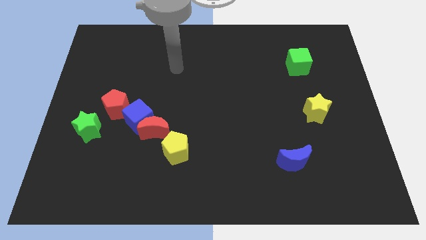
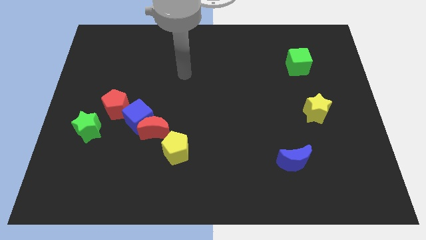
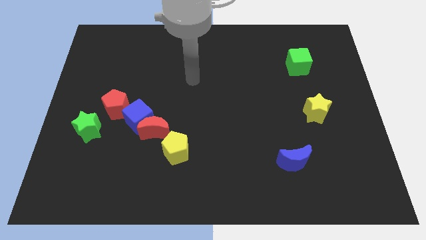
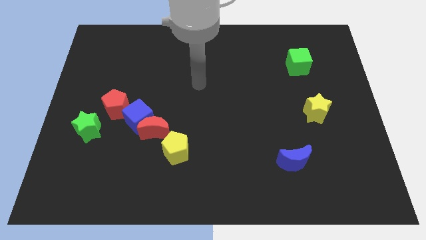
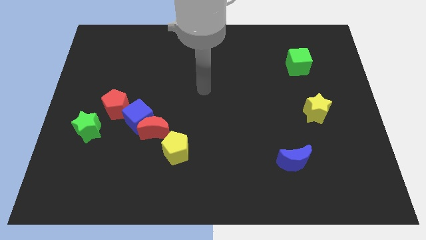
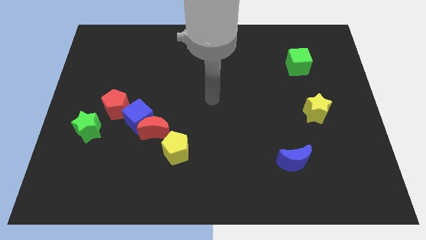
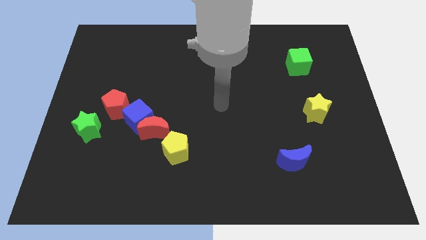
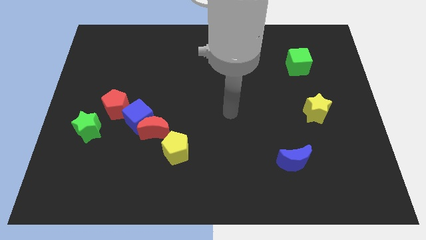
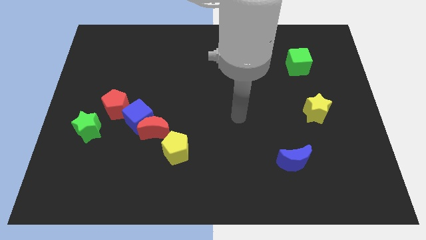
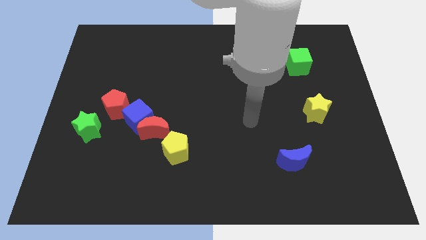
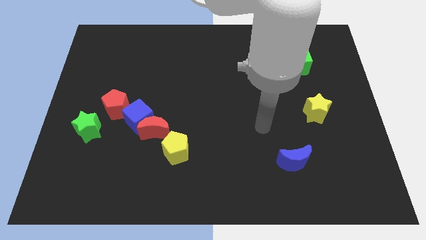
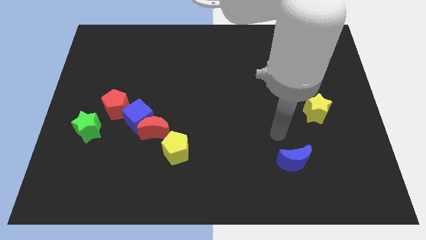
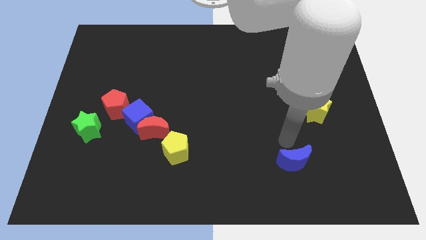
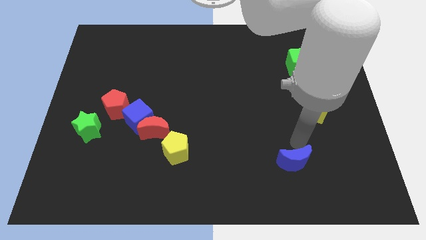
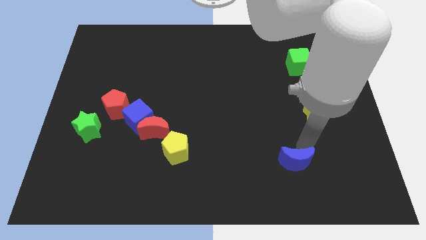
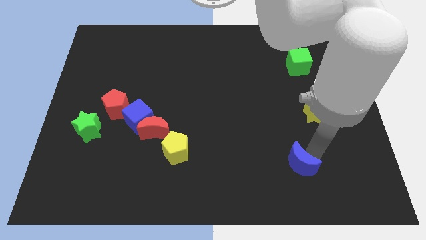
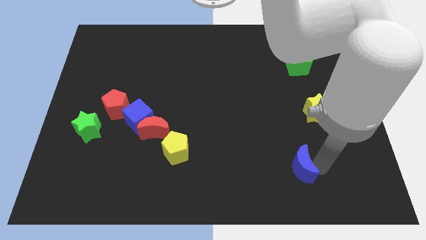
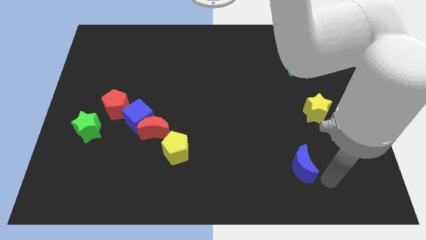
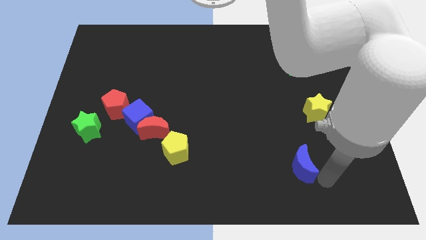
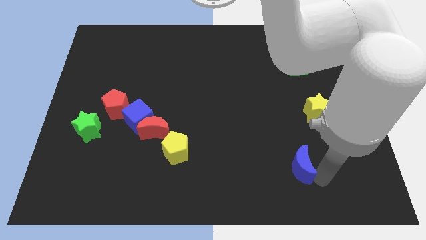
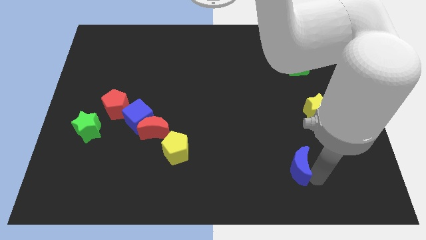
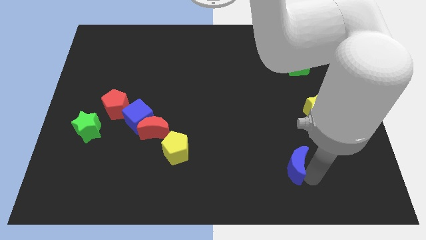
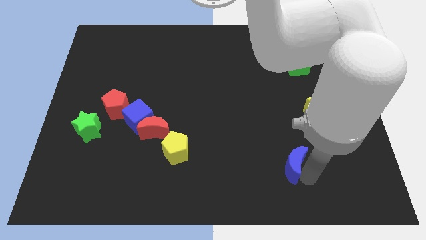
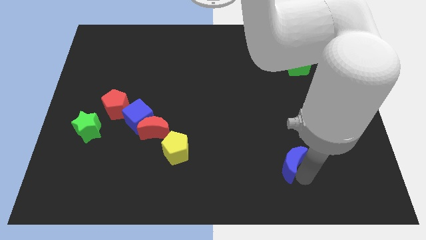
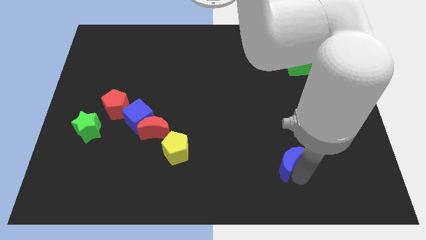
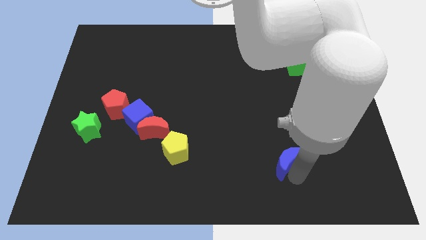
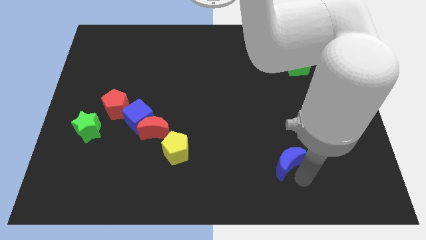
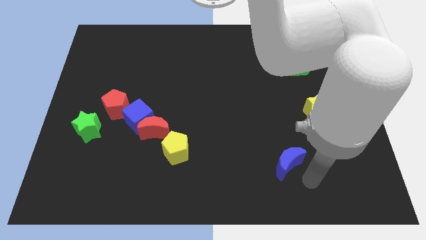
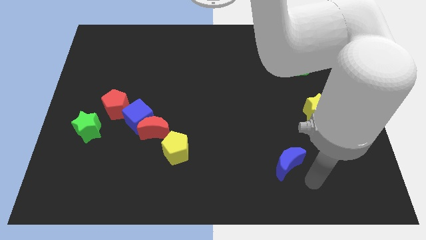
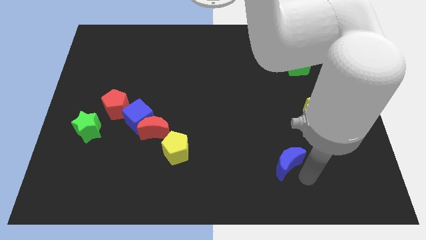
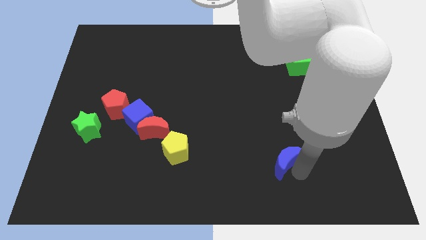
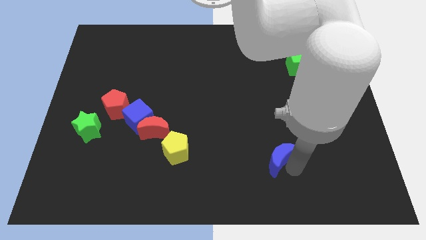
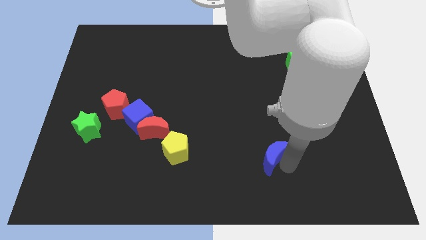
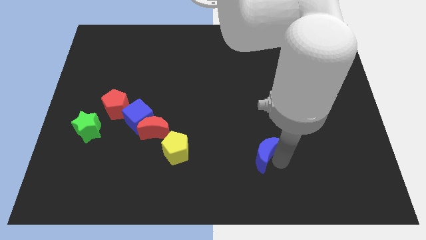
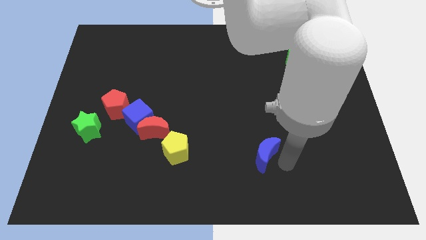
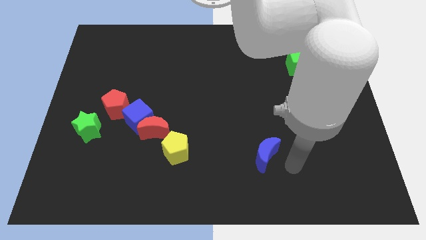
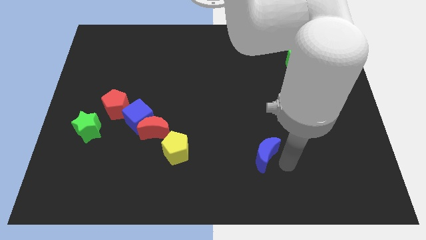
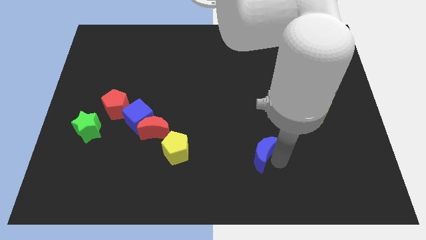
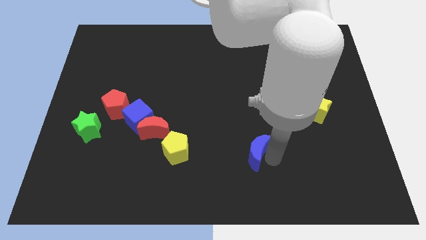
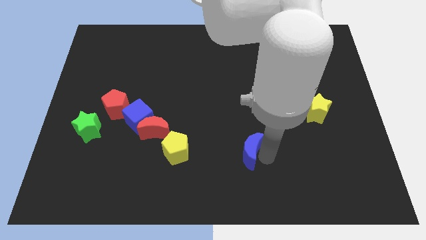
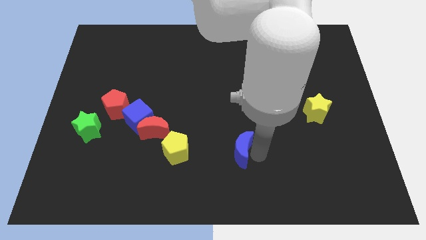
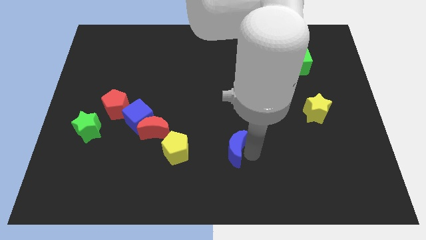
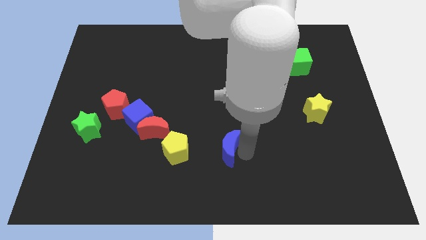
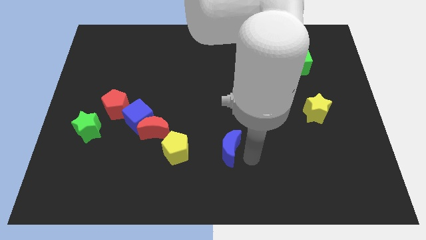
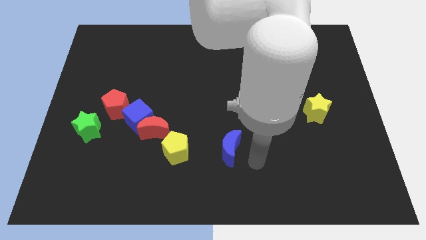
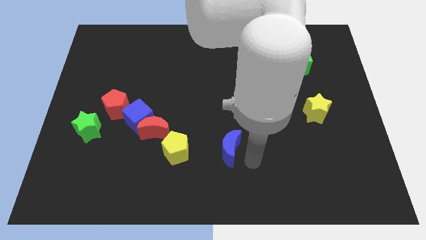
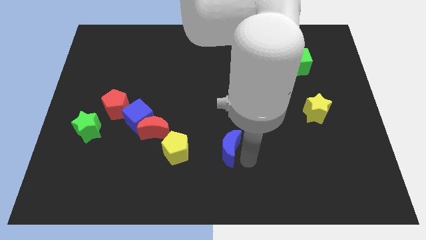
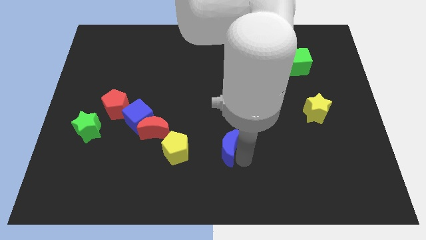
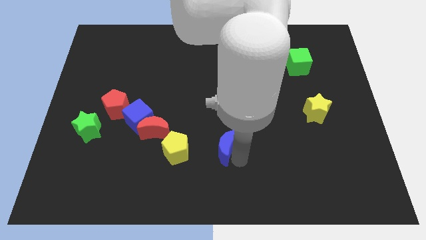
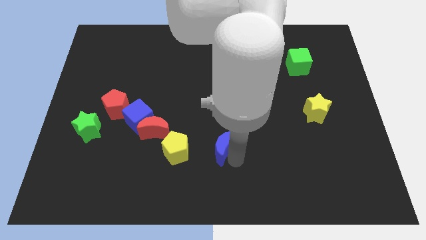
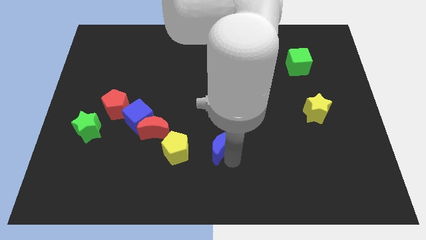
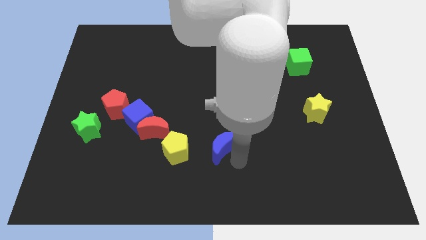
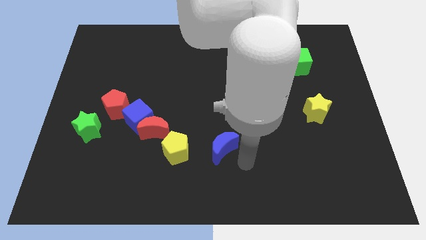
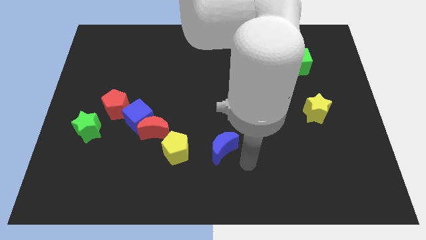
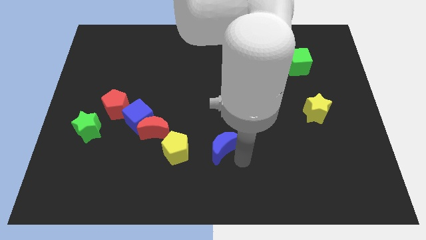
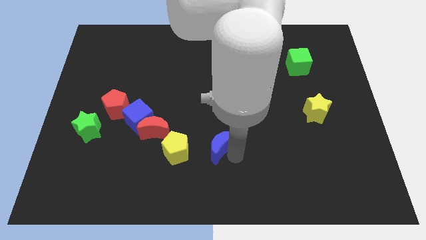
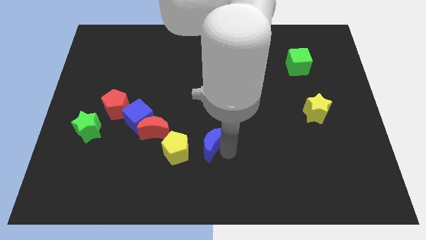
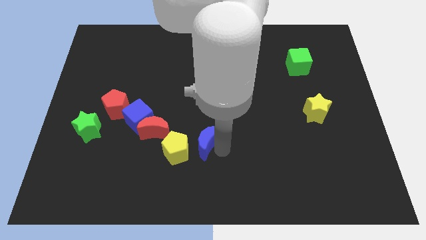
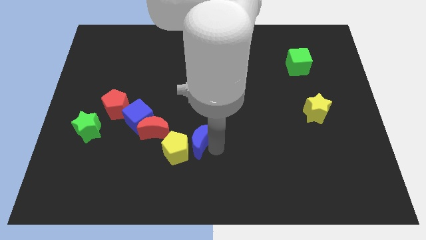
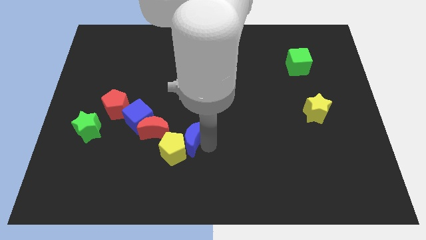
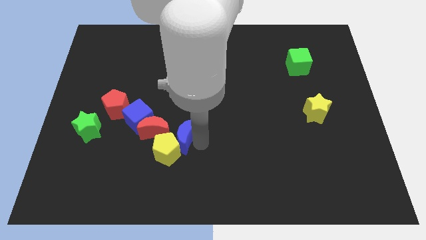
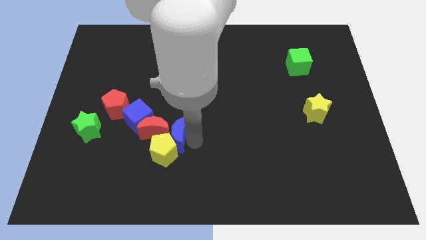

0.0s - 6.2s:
move the blue moon next to the red moon

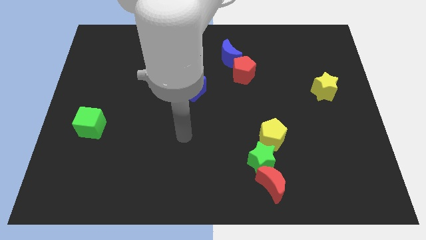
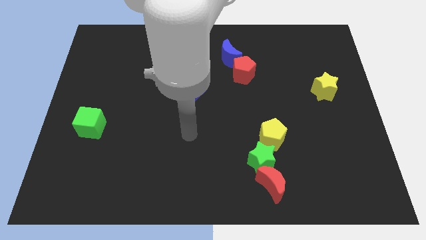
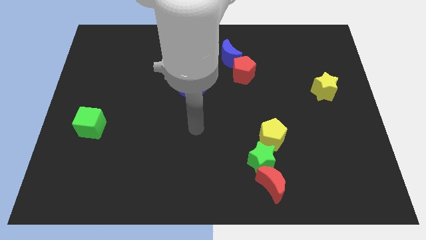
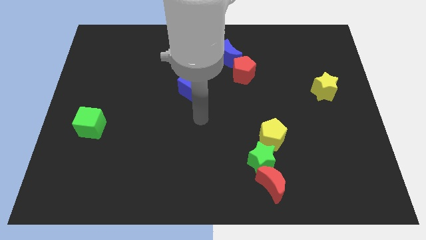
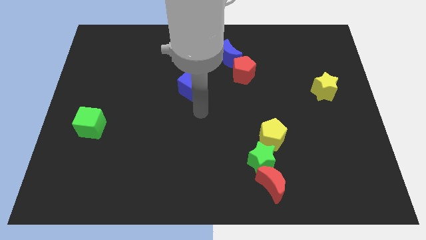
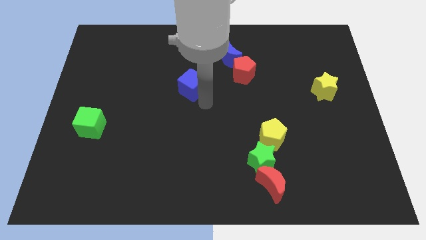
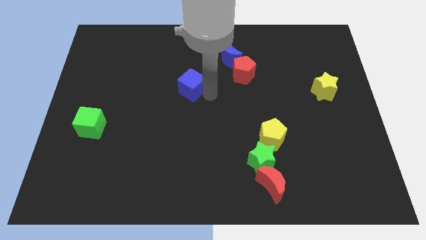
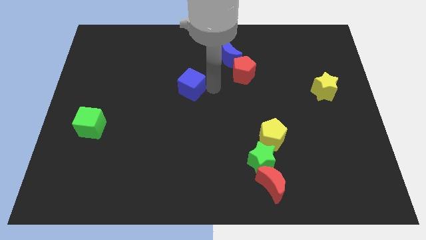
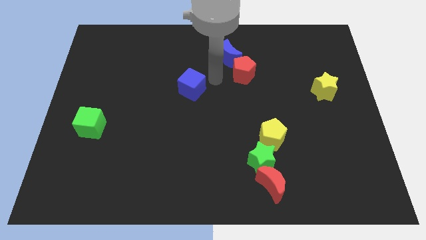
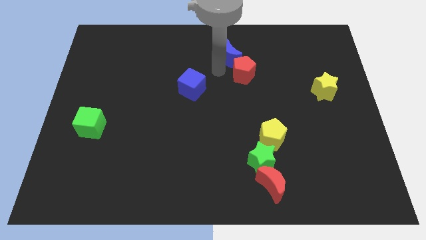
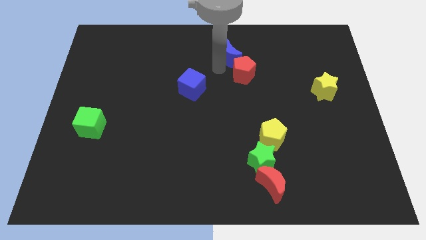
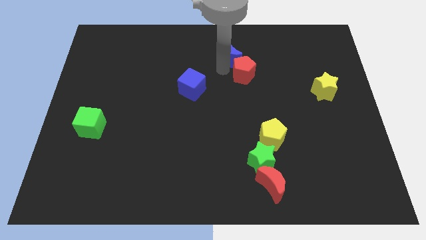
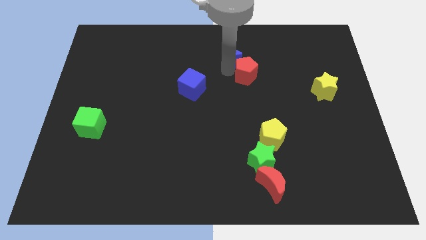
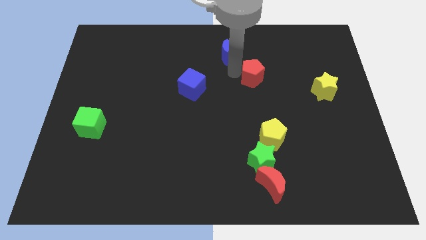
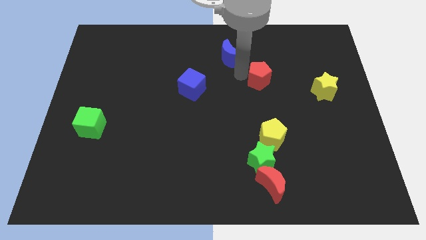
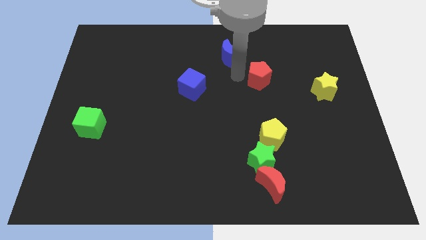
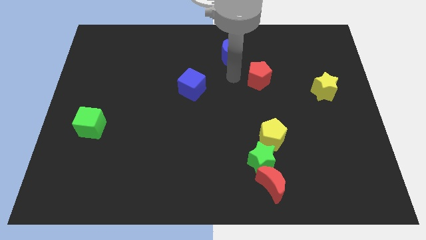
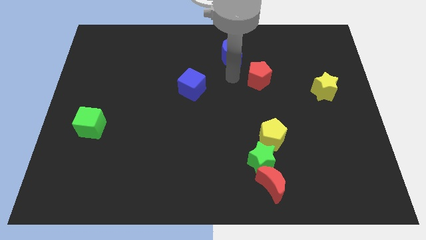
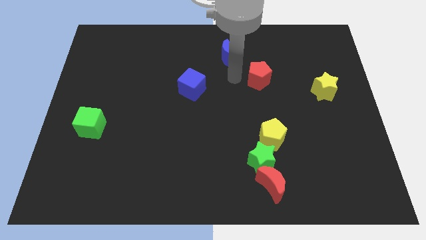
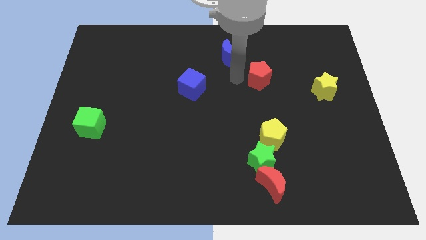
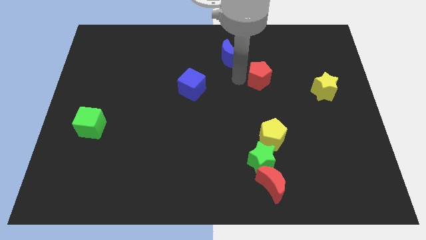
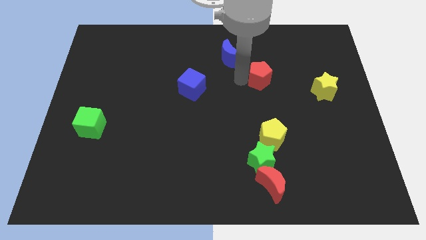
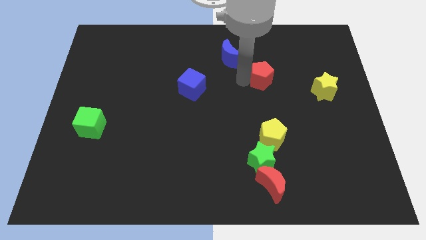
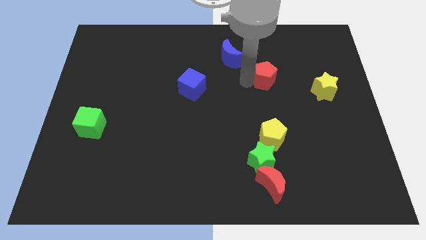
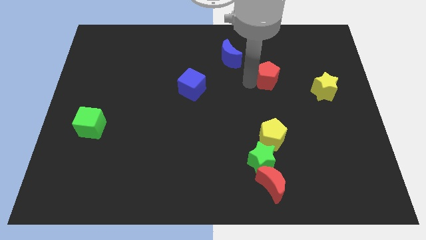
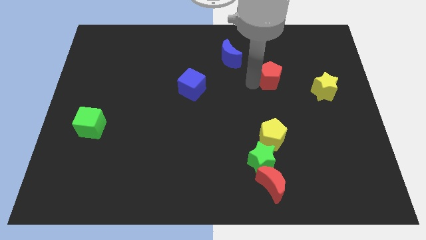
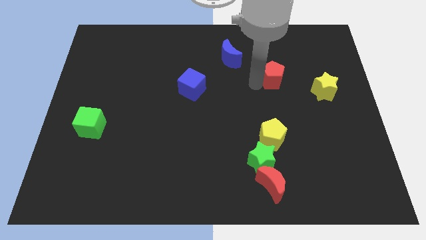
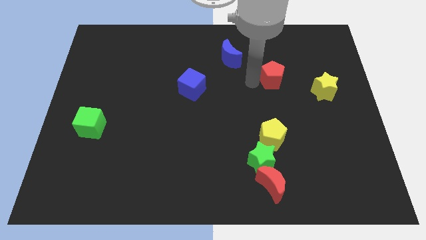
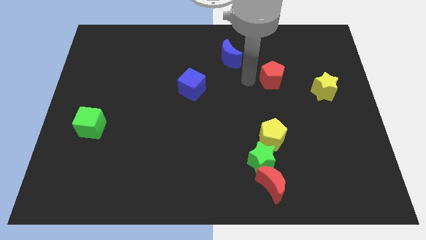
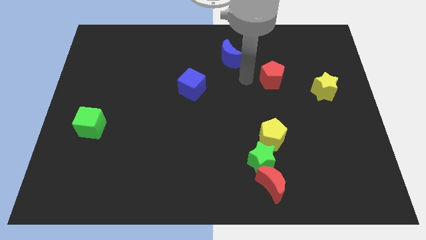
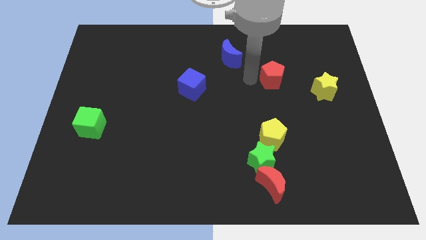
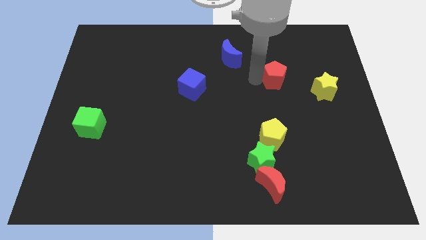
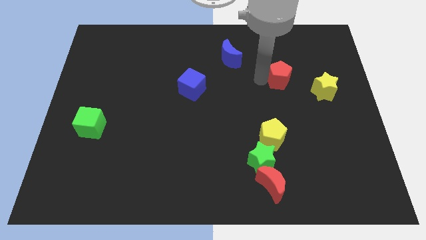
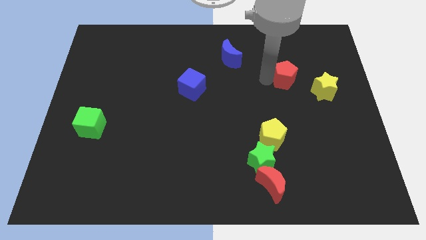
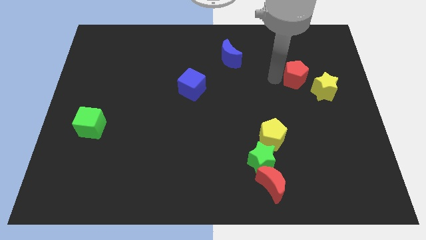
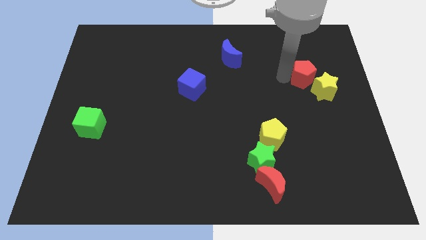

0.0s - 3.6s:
move the red pentagon next to the yellow star
